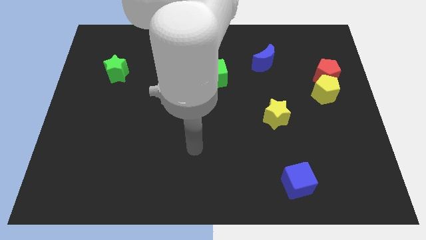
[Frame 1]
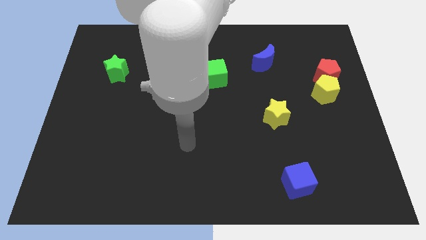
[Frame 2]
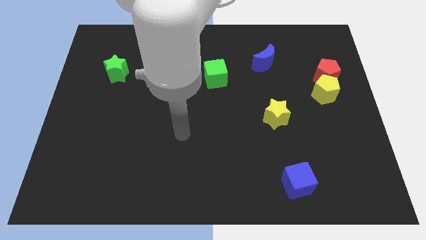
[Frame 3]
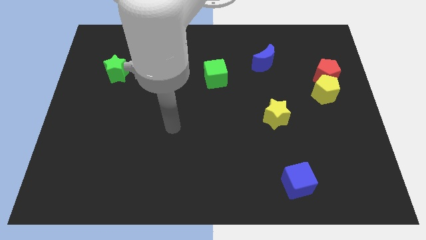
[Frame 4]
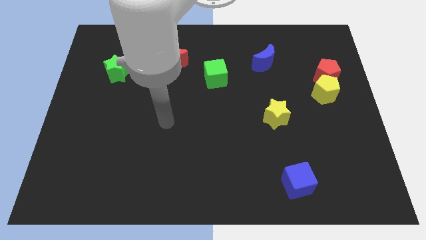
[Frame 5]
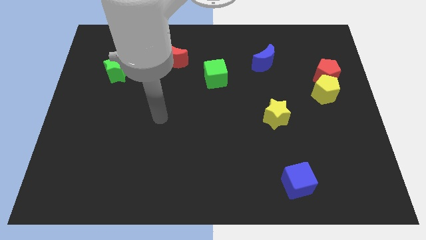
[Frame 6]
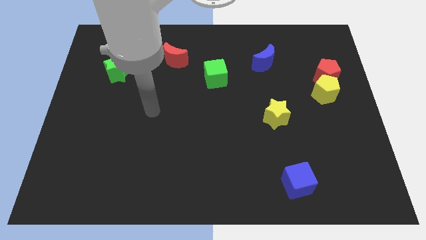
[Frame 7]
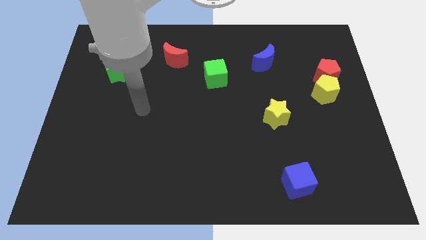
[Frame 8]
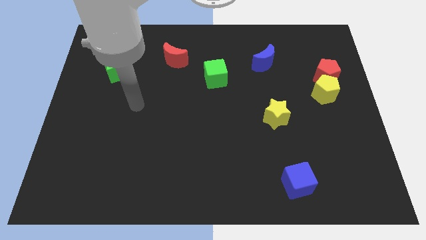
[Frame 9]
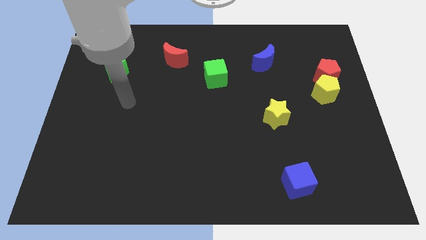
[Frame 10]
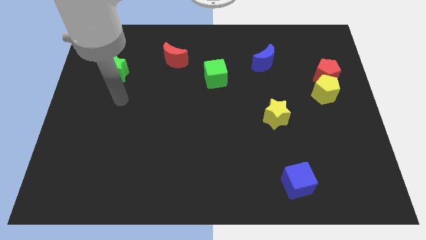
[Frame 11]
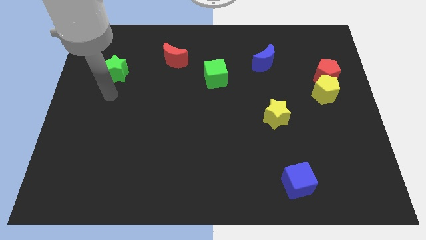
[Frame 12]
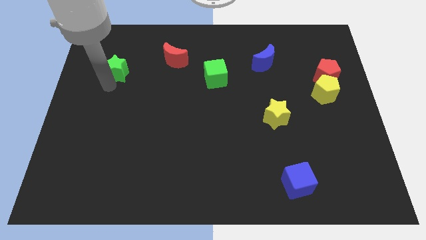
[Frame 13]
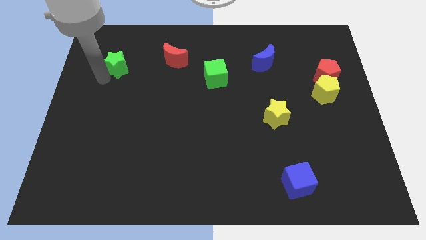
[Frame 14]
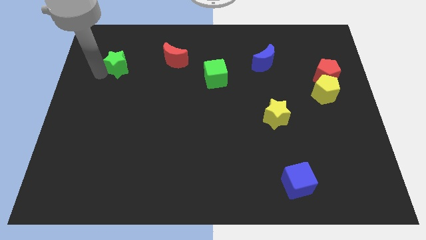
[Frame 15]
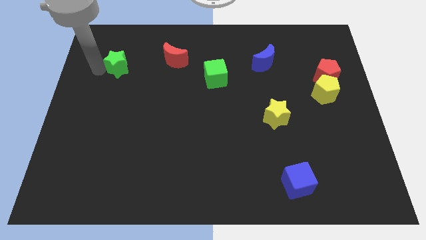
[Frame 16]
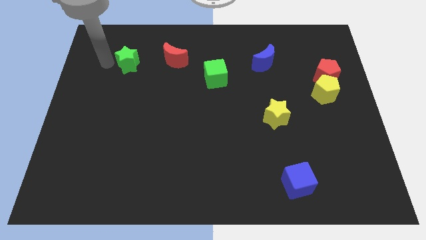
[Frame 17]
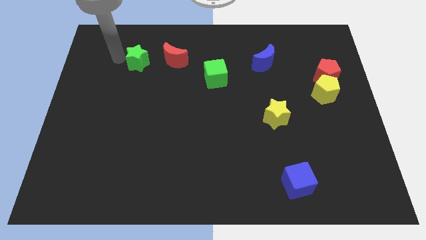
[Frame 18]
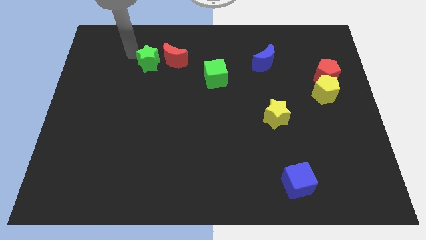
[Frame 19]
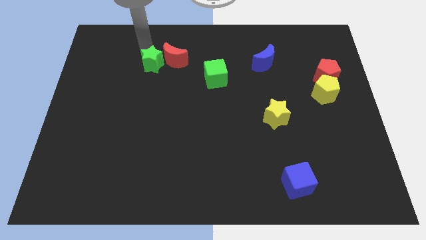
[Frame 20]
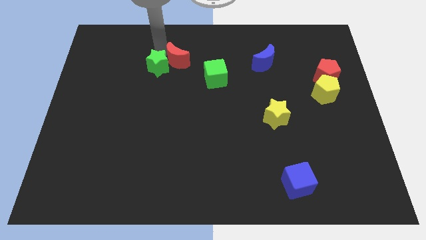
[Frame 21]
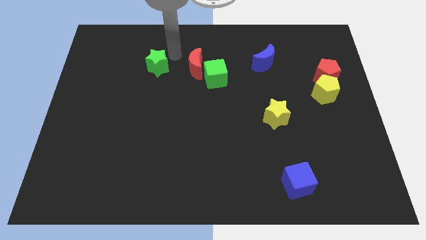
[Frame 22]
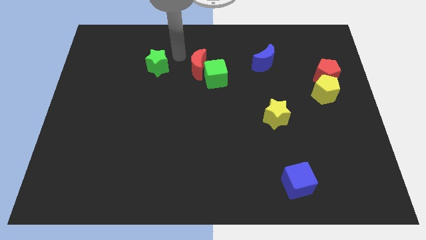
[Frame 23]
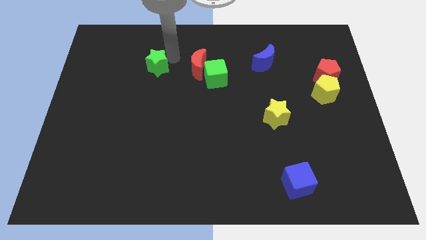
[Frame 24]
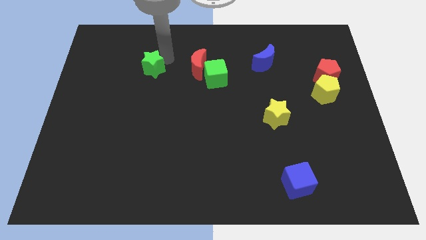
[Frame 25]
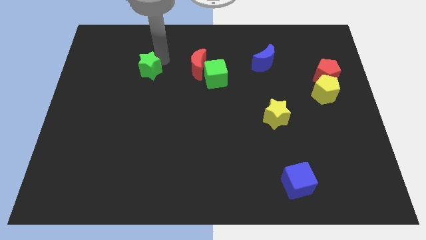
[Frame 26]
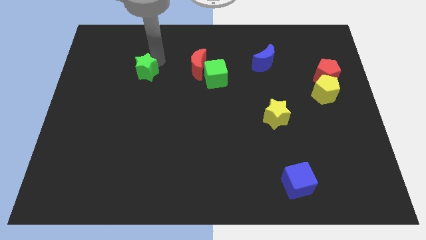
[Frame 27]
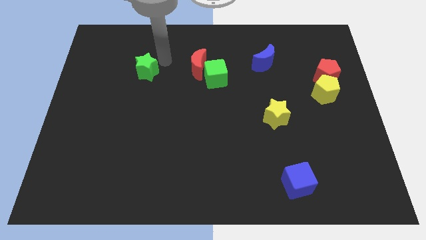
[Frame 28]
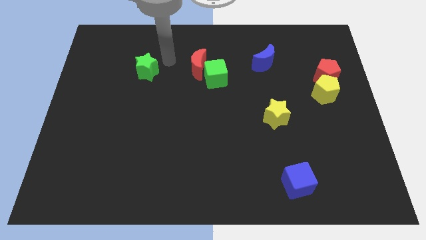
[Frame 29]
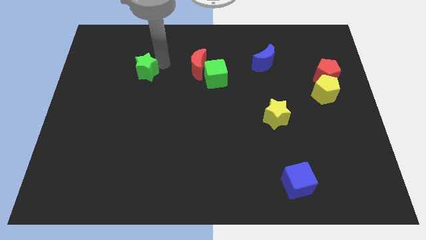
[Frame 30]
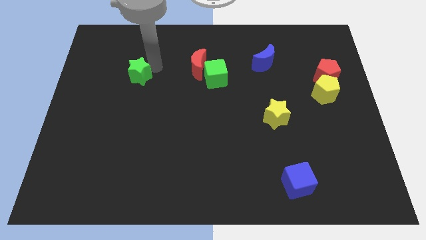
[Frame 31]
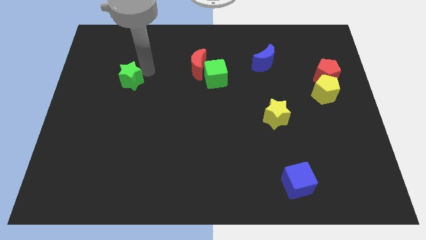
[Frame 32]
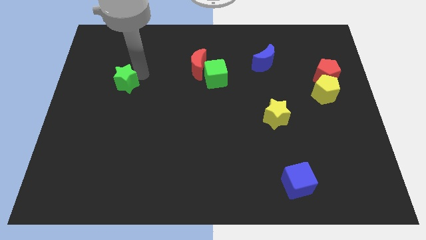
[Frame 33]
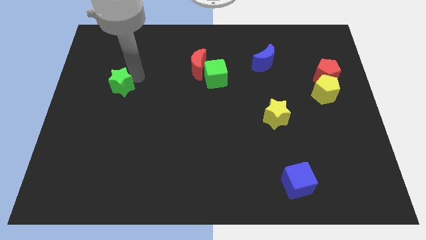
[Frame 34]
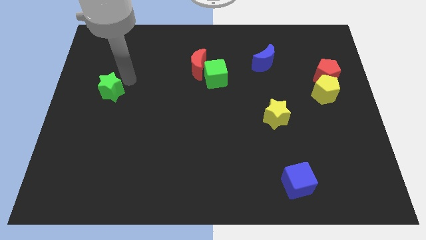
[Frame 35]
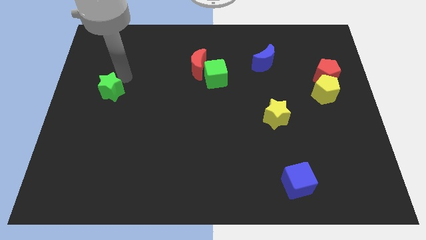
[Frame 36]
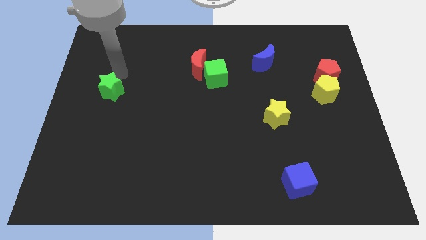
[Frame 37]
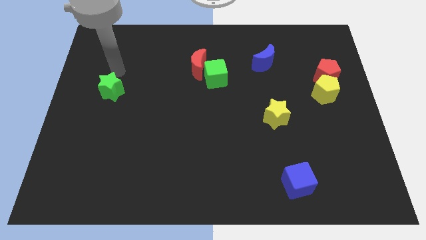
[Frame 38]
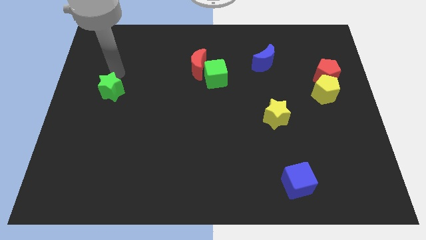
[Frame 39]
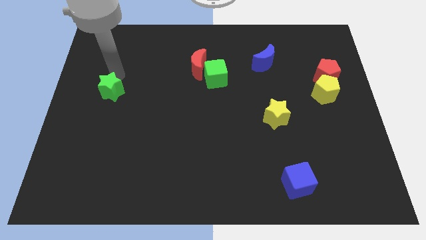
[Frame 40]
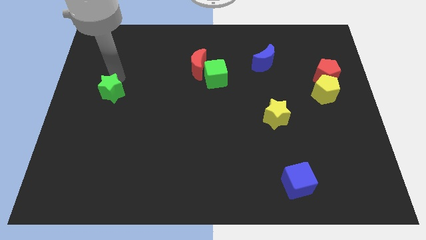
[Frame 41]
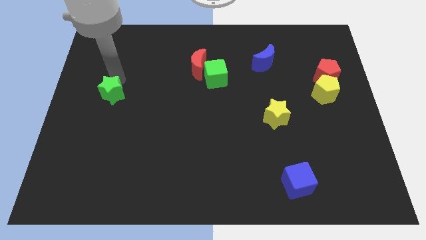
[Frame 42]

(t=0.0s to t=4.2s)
move the green star somewhat down

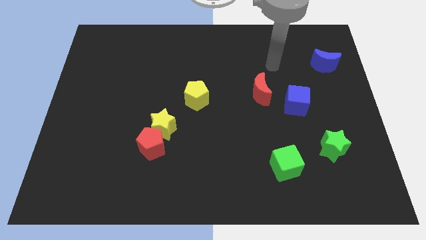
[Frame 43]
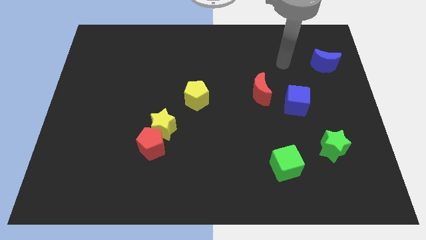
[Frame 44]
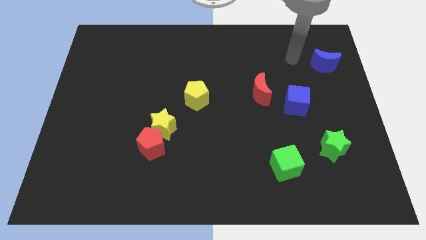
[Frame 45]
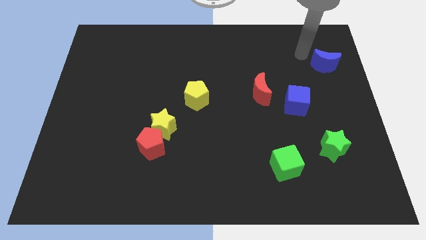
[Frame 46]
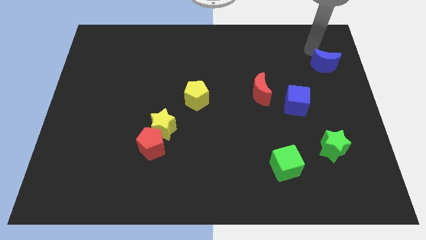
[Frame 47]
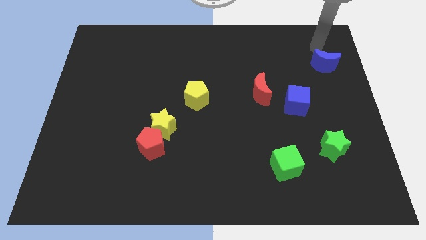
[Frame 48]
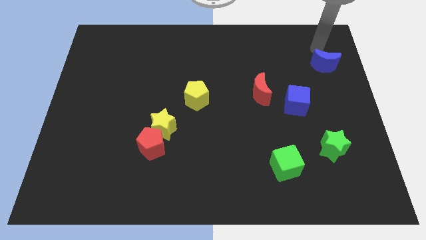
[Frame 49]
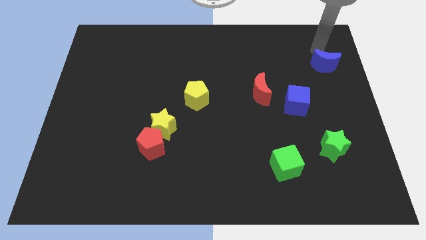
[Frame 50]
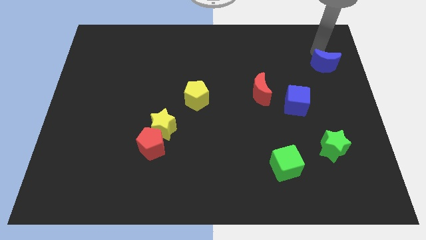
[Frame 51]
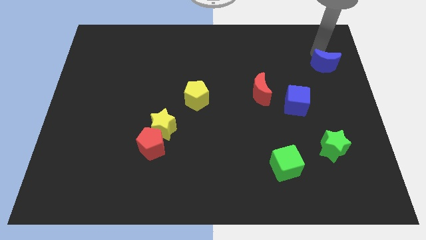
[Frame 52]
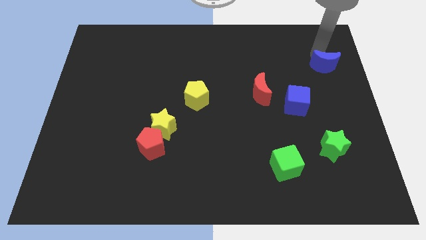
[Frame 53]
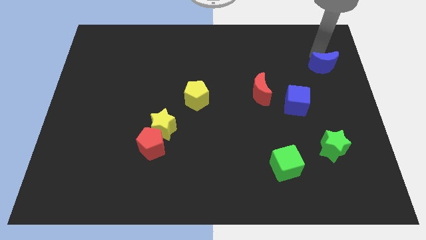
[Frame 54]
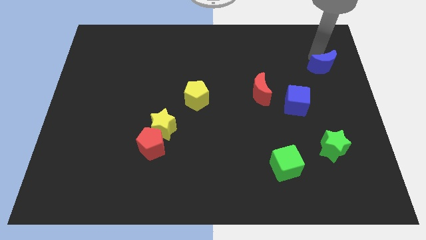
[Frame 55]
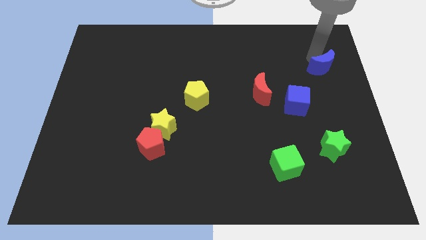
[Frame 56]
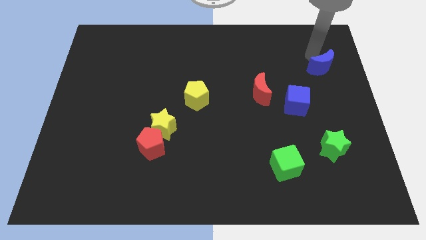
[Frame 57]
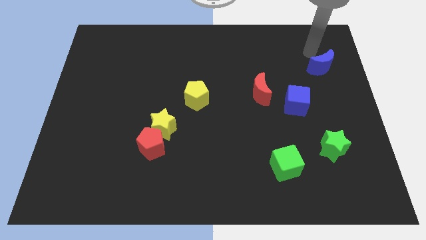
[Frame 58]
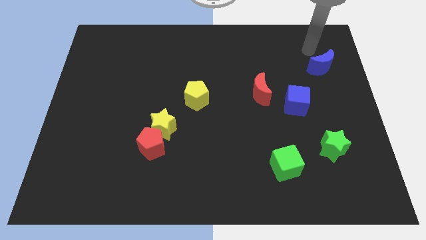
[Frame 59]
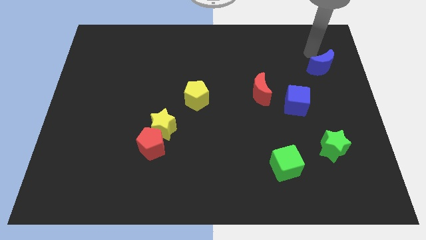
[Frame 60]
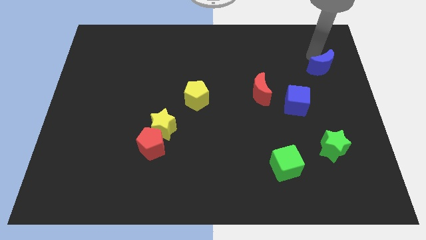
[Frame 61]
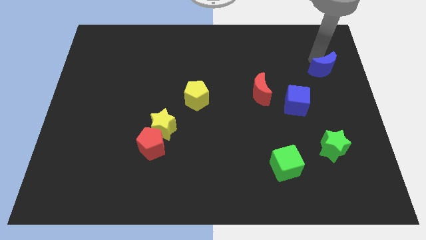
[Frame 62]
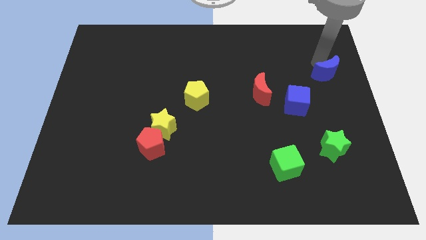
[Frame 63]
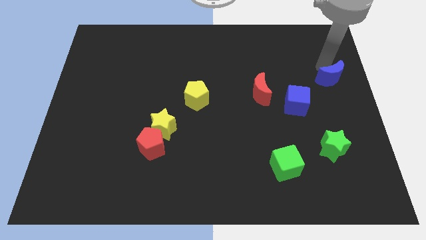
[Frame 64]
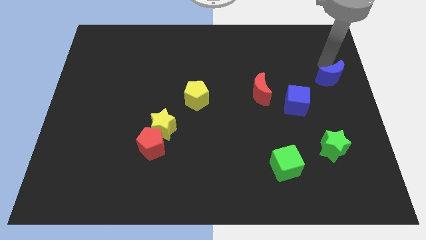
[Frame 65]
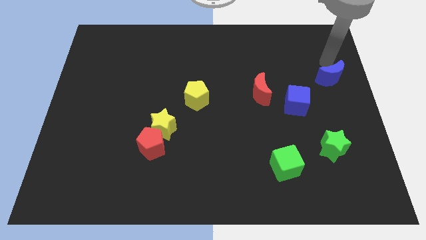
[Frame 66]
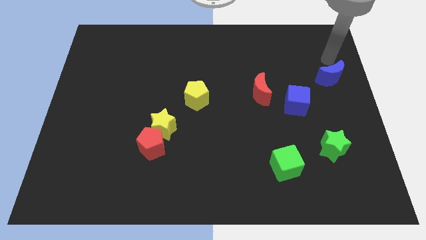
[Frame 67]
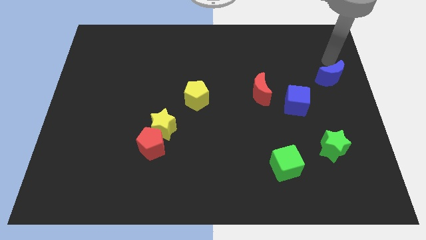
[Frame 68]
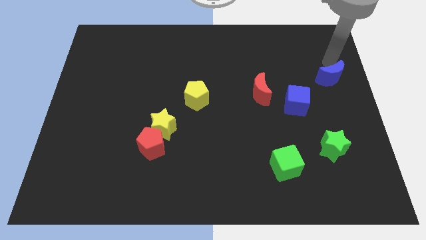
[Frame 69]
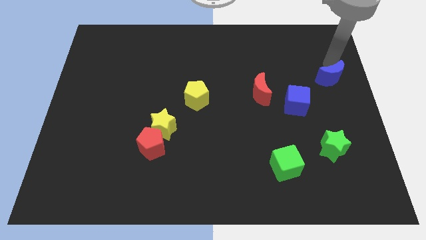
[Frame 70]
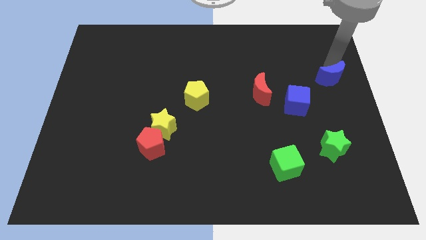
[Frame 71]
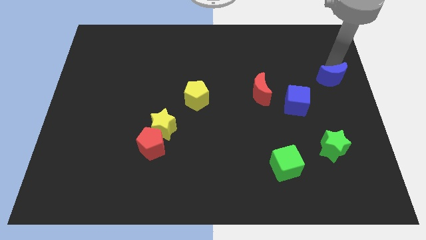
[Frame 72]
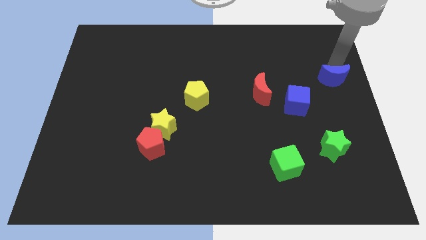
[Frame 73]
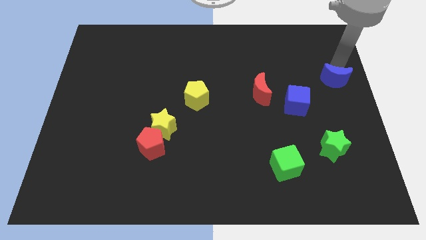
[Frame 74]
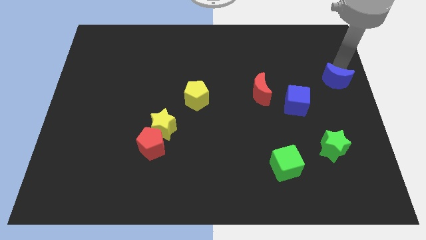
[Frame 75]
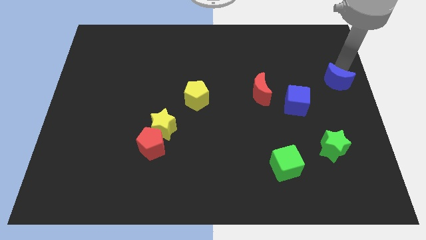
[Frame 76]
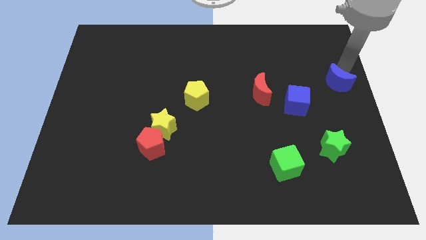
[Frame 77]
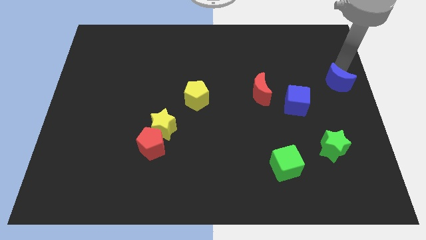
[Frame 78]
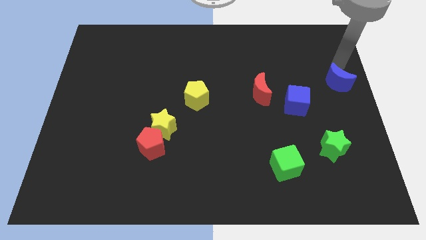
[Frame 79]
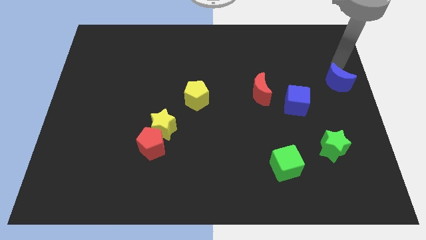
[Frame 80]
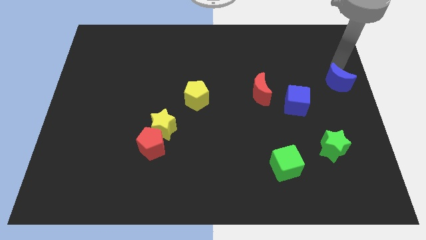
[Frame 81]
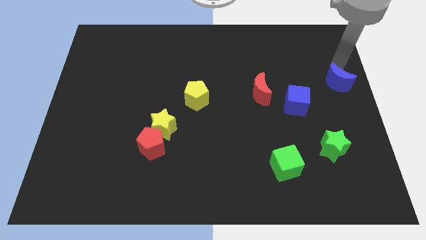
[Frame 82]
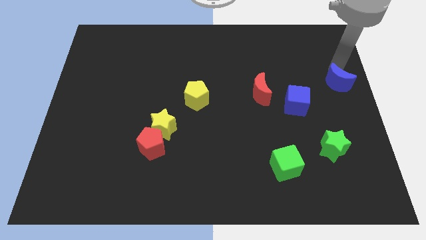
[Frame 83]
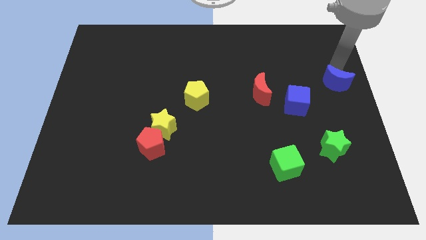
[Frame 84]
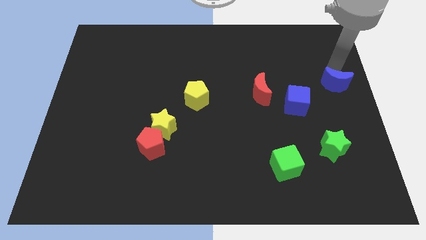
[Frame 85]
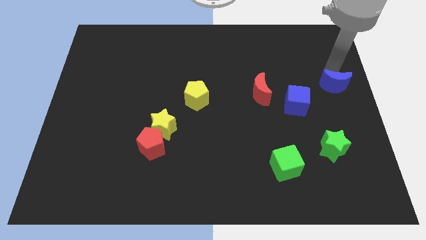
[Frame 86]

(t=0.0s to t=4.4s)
slightly push the blue moon down
